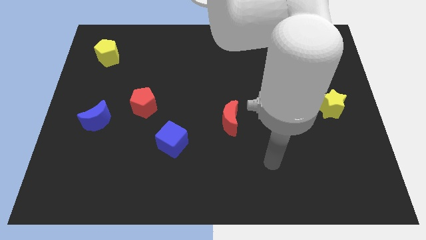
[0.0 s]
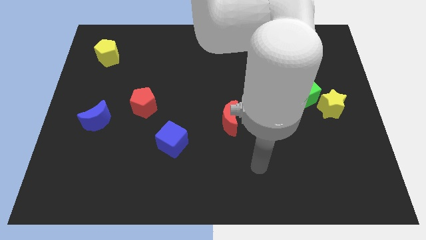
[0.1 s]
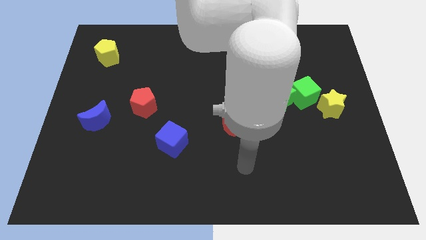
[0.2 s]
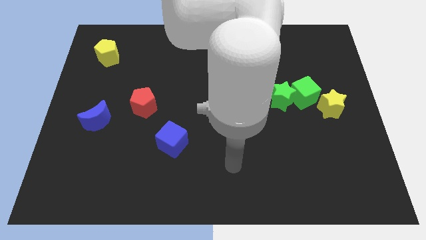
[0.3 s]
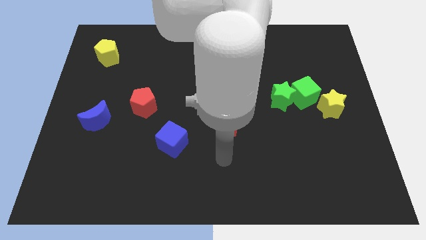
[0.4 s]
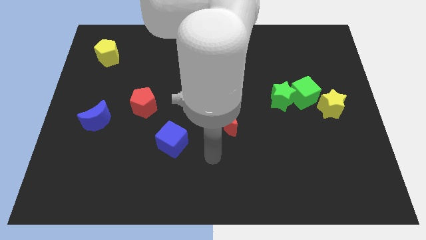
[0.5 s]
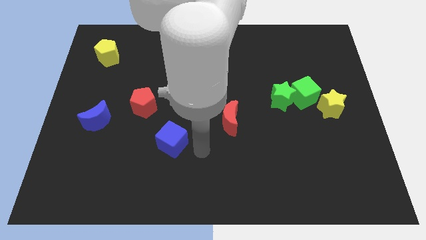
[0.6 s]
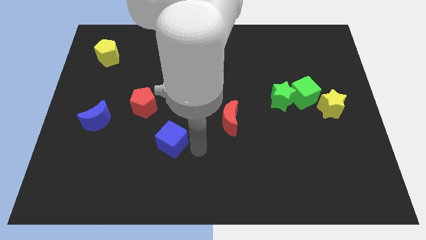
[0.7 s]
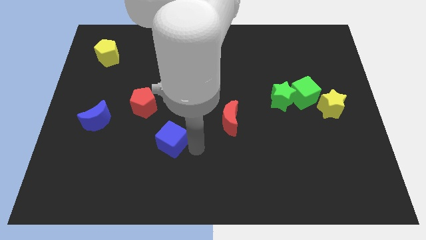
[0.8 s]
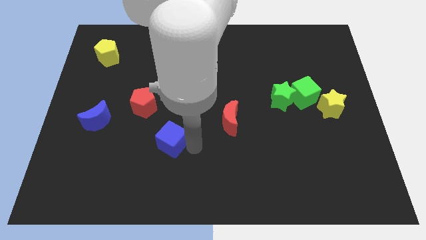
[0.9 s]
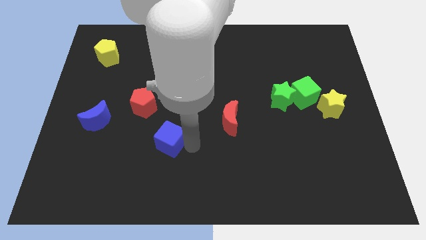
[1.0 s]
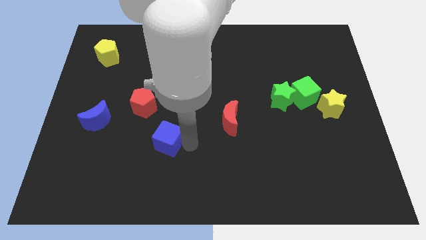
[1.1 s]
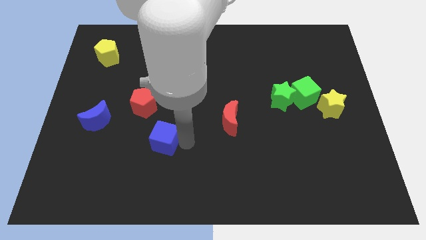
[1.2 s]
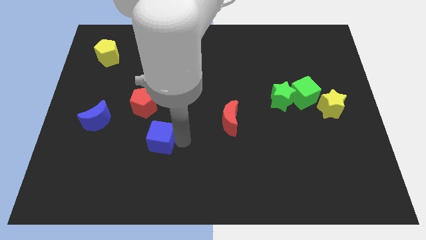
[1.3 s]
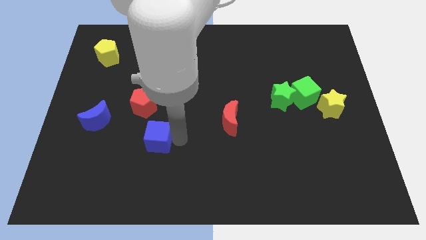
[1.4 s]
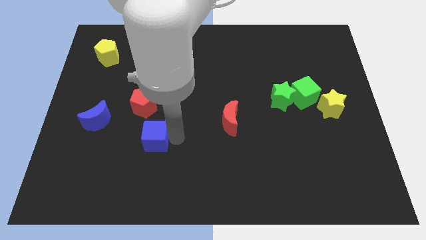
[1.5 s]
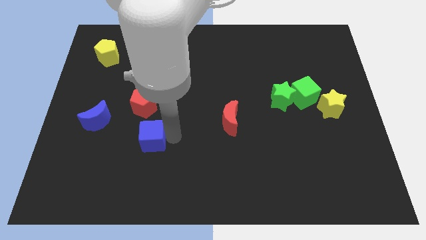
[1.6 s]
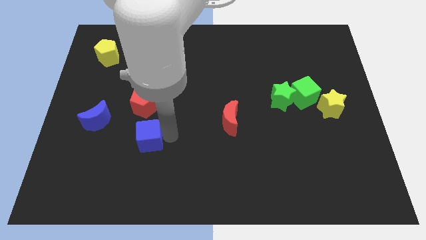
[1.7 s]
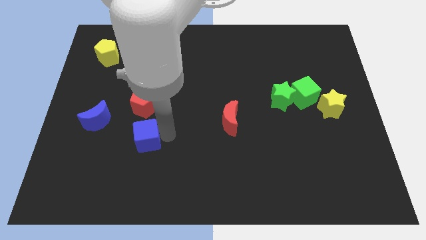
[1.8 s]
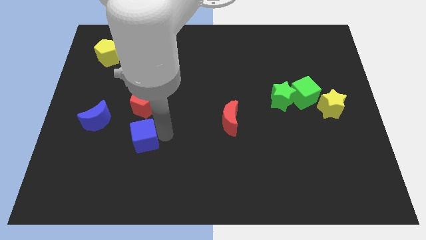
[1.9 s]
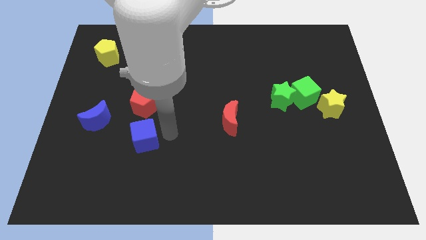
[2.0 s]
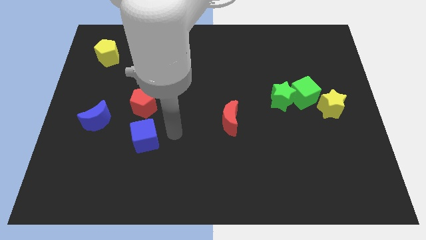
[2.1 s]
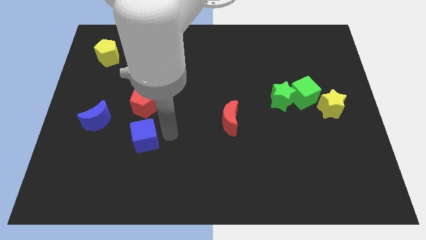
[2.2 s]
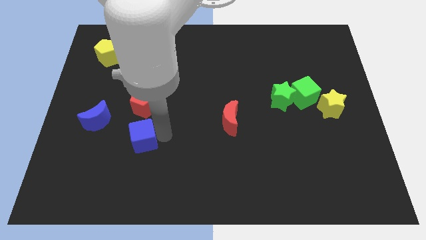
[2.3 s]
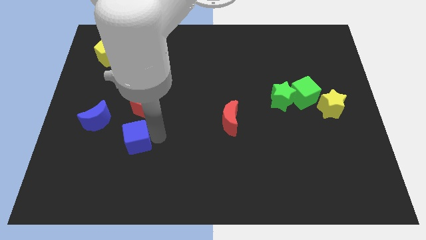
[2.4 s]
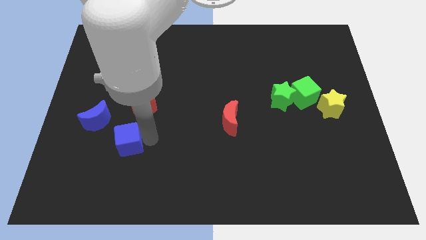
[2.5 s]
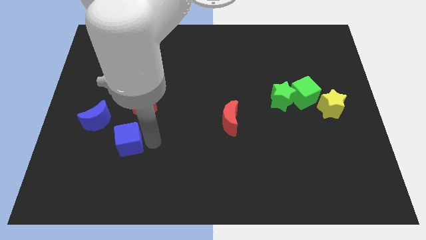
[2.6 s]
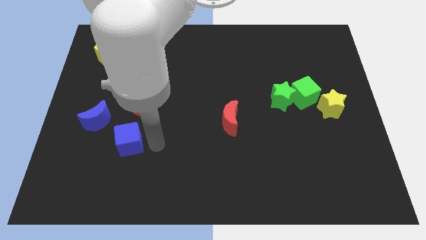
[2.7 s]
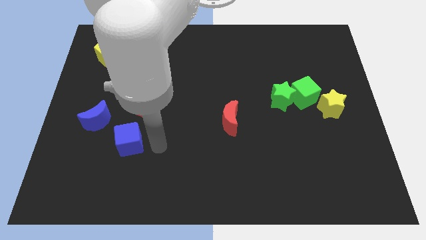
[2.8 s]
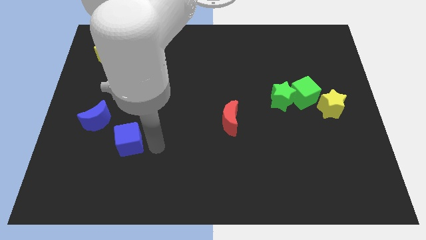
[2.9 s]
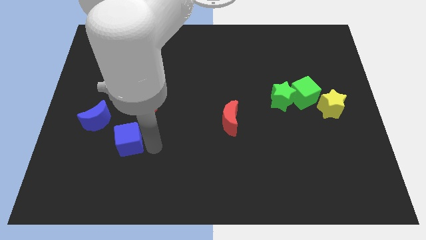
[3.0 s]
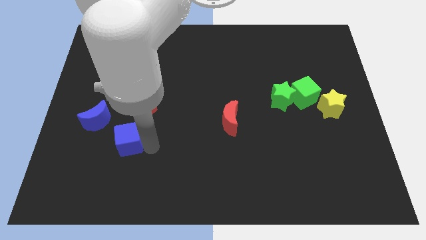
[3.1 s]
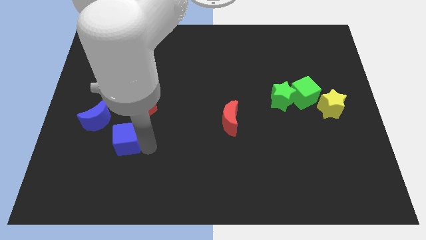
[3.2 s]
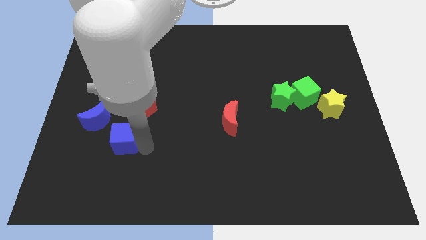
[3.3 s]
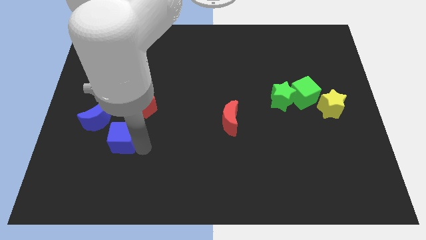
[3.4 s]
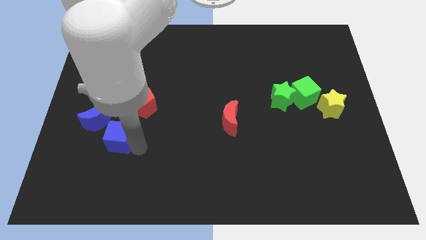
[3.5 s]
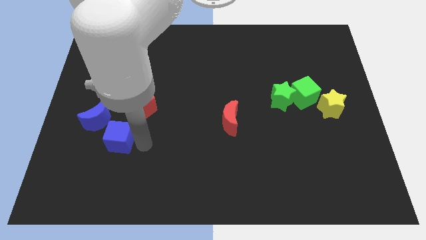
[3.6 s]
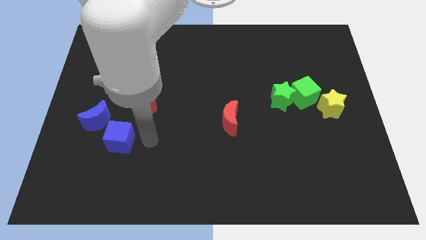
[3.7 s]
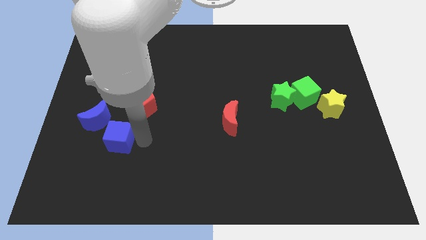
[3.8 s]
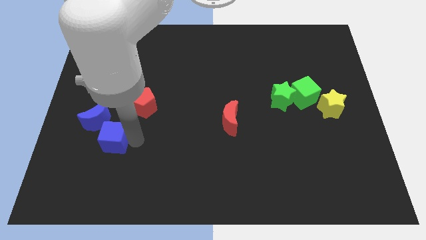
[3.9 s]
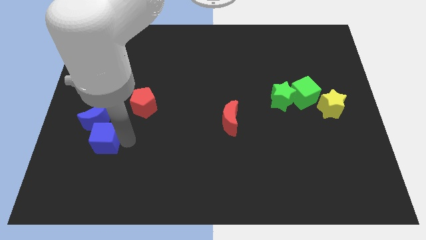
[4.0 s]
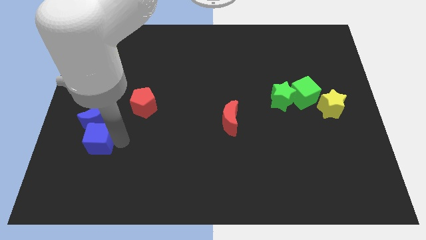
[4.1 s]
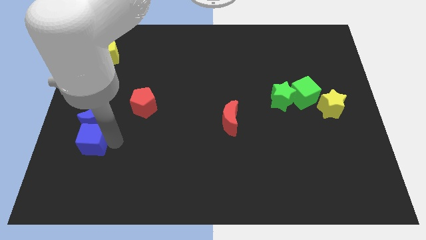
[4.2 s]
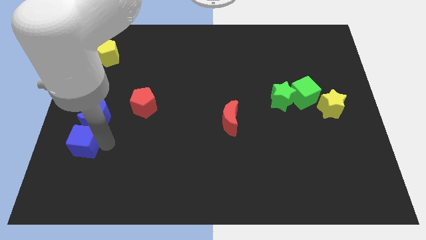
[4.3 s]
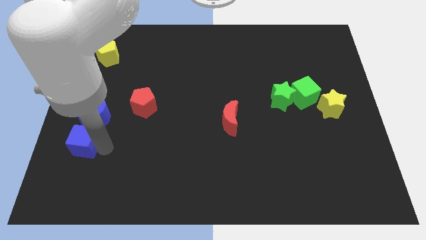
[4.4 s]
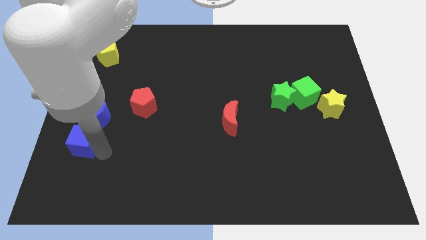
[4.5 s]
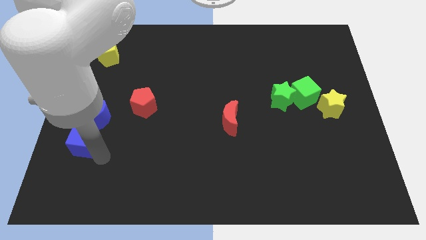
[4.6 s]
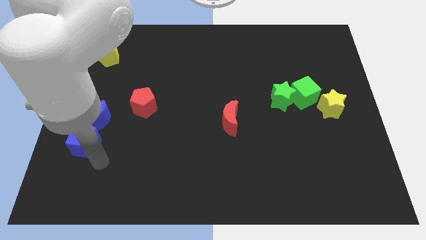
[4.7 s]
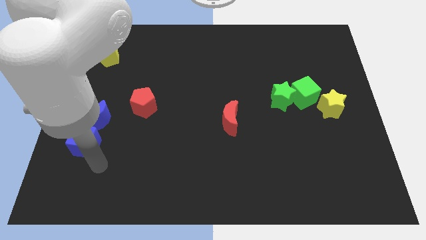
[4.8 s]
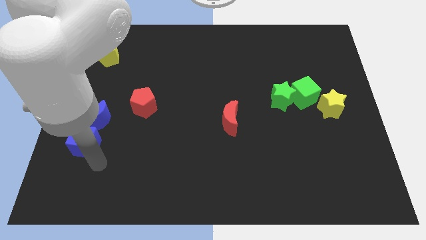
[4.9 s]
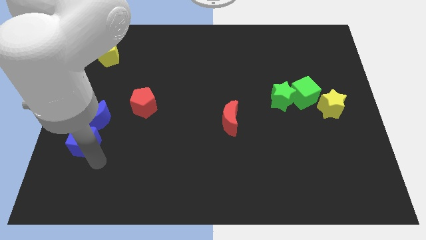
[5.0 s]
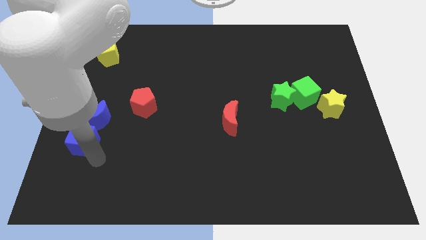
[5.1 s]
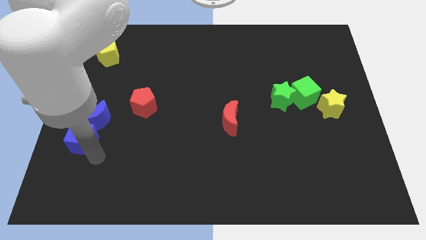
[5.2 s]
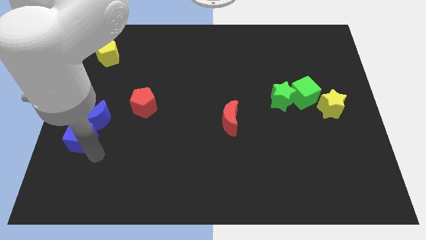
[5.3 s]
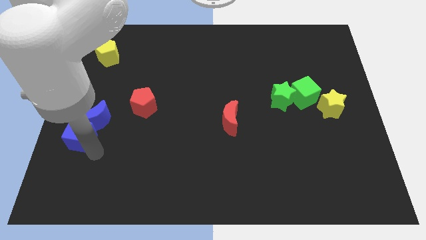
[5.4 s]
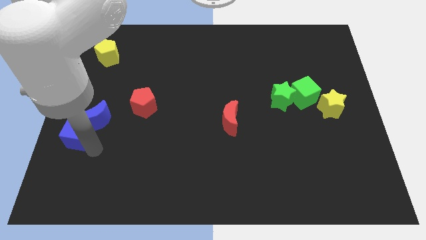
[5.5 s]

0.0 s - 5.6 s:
put the blue cube to the center left

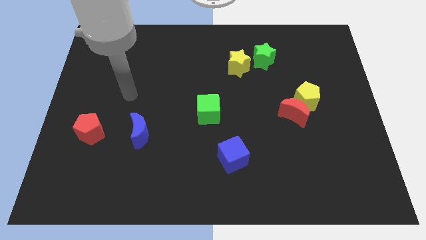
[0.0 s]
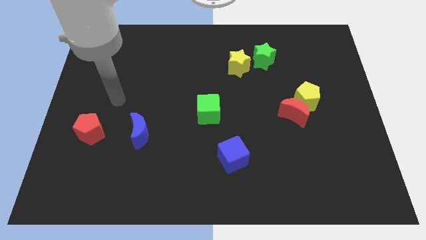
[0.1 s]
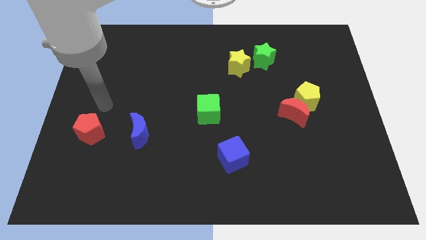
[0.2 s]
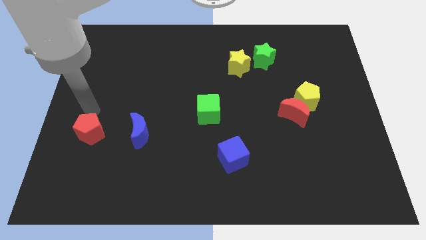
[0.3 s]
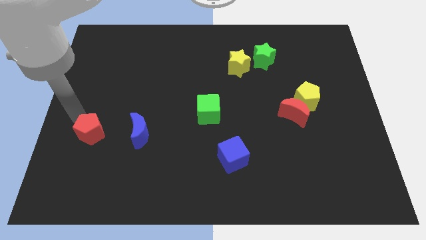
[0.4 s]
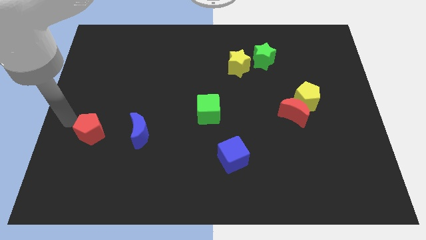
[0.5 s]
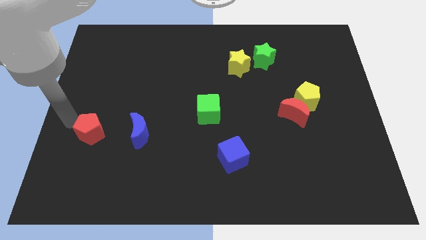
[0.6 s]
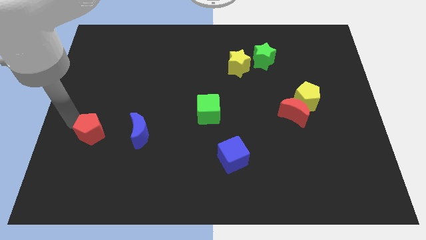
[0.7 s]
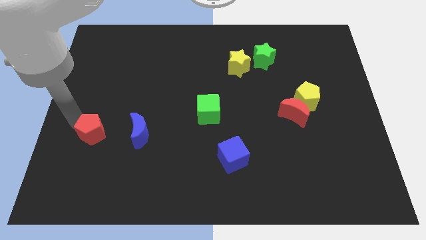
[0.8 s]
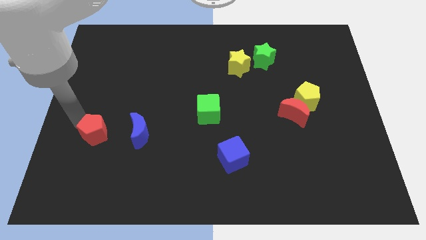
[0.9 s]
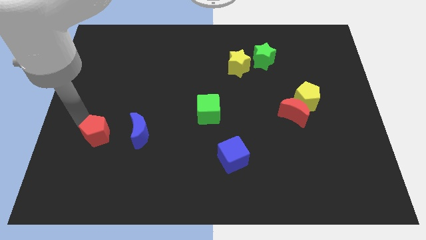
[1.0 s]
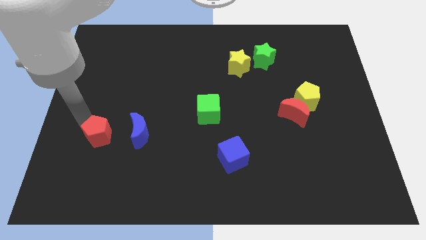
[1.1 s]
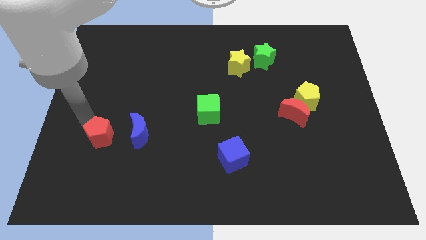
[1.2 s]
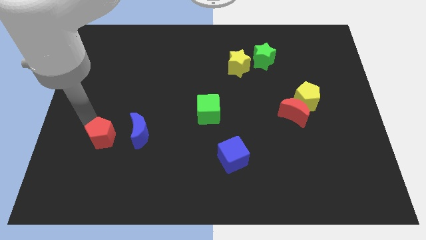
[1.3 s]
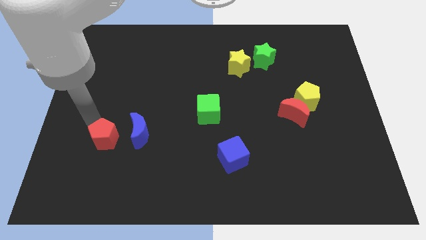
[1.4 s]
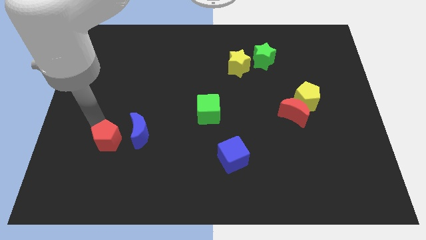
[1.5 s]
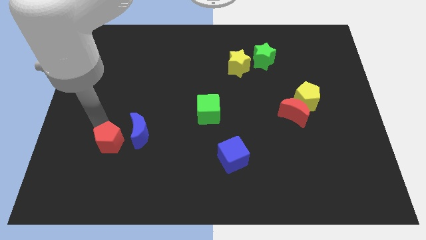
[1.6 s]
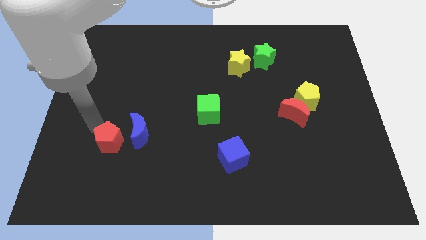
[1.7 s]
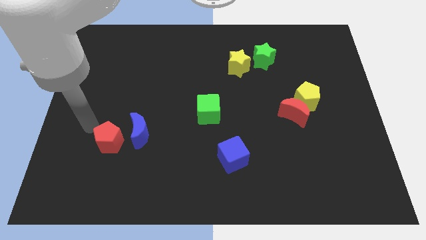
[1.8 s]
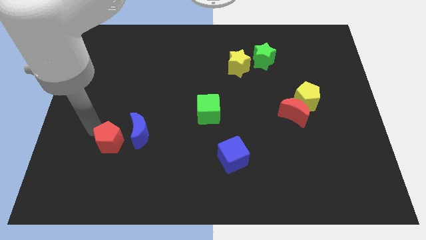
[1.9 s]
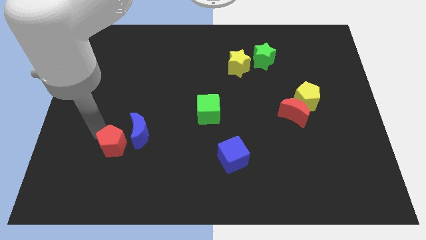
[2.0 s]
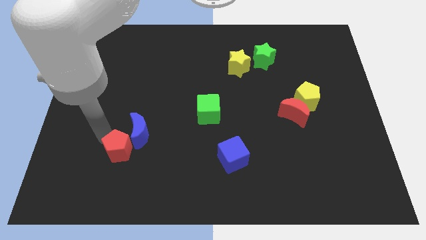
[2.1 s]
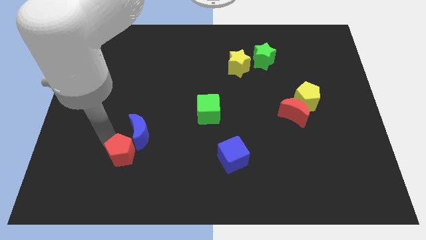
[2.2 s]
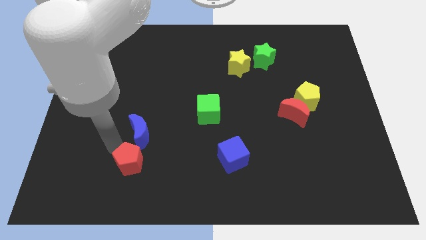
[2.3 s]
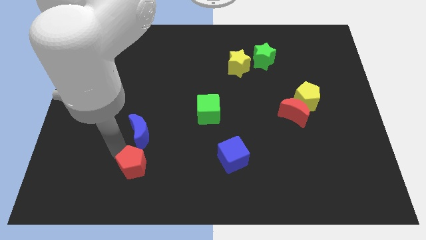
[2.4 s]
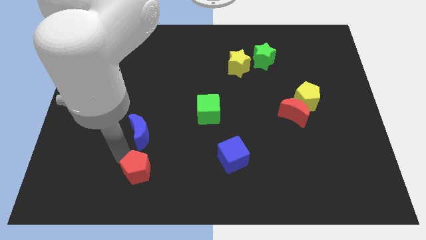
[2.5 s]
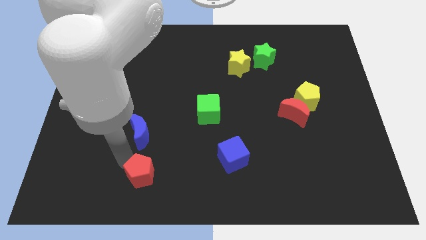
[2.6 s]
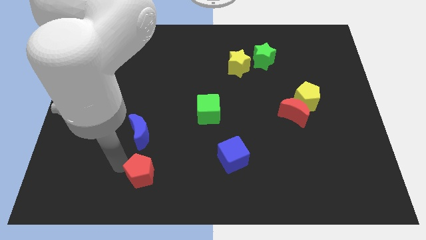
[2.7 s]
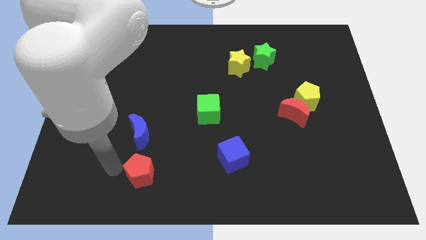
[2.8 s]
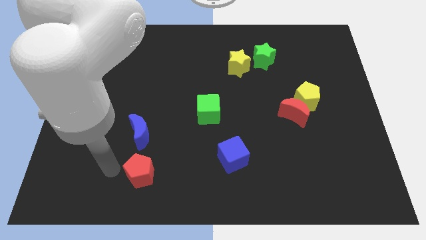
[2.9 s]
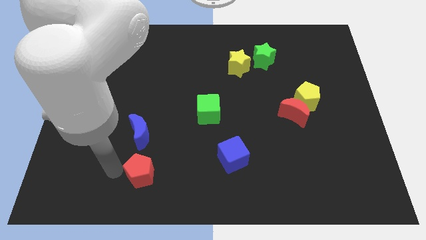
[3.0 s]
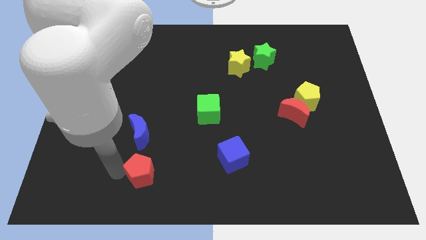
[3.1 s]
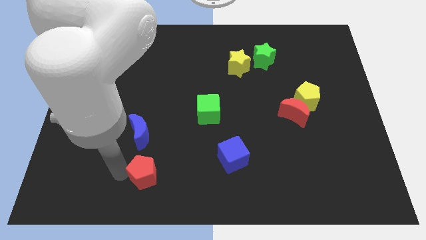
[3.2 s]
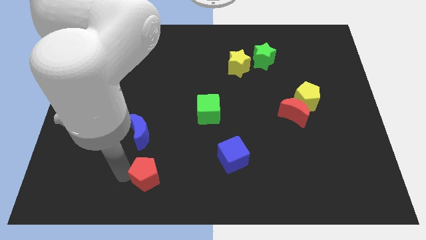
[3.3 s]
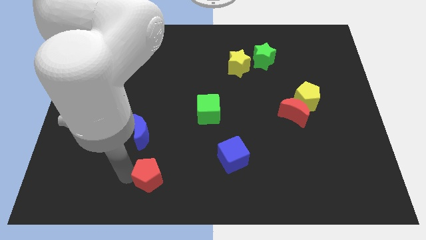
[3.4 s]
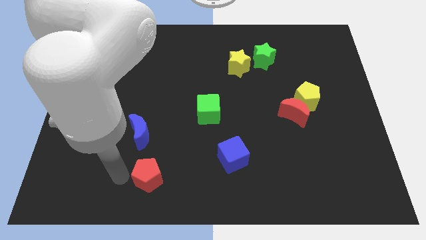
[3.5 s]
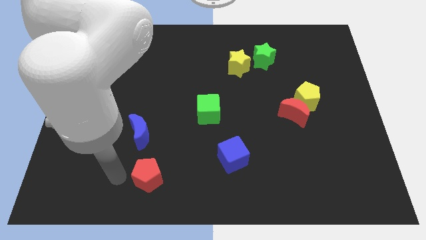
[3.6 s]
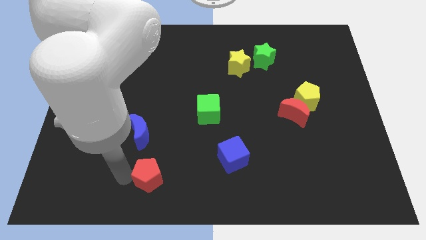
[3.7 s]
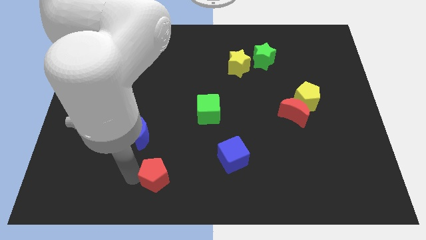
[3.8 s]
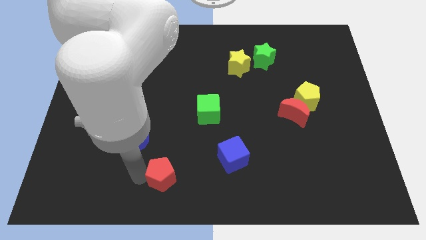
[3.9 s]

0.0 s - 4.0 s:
put the red pentagon to the bottom
